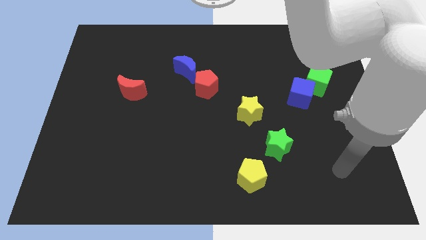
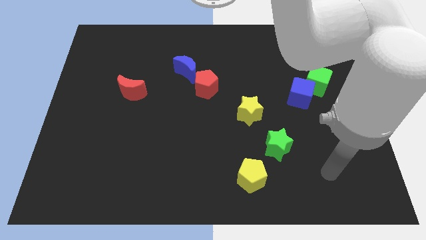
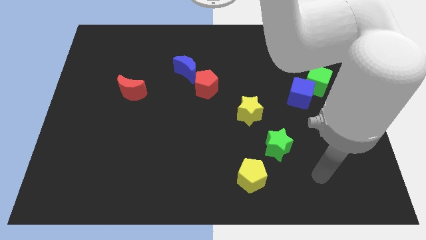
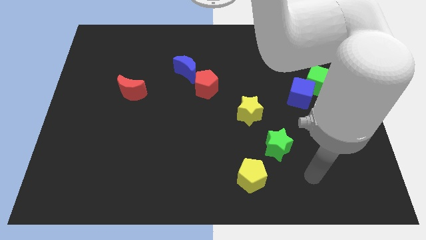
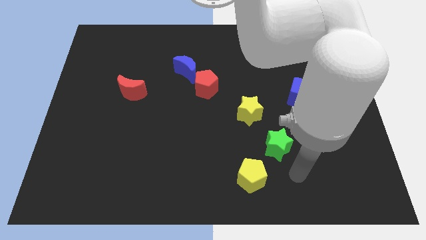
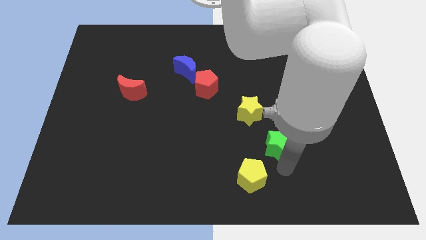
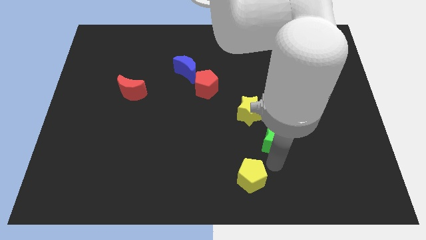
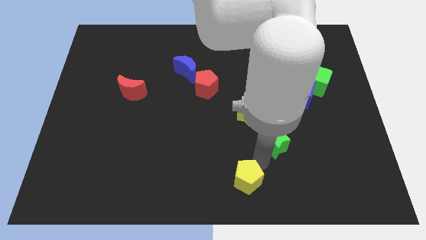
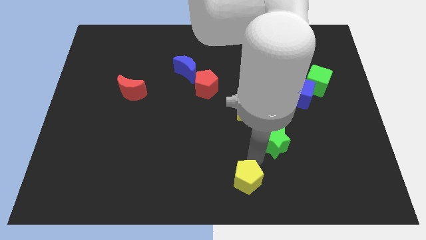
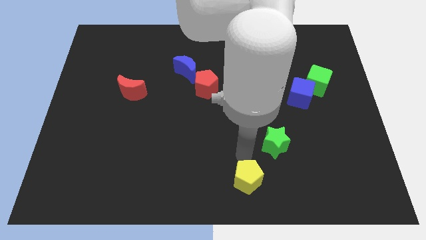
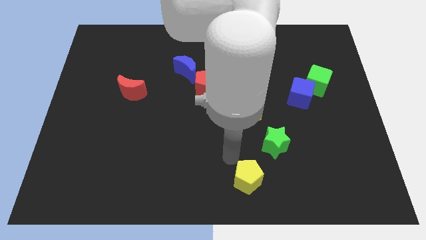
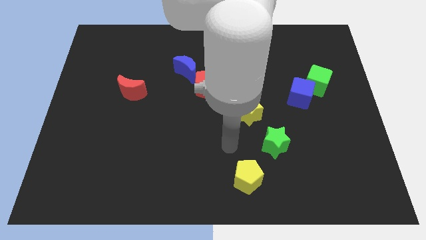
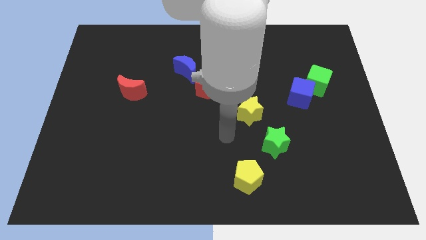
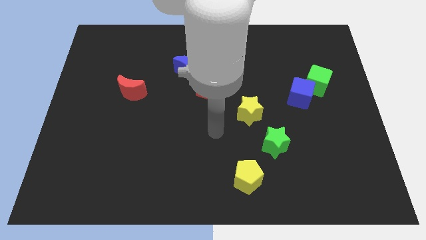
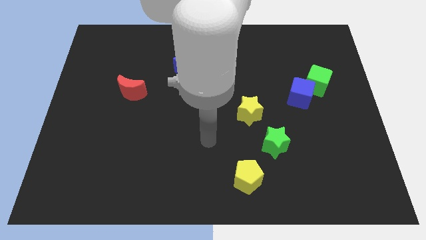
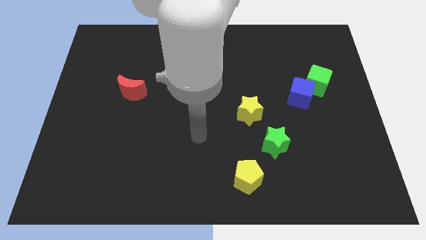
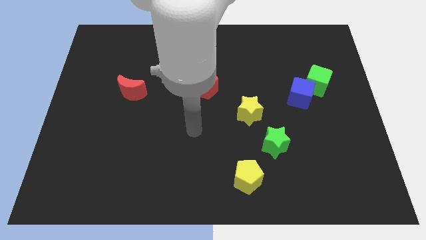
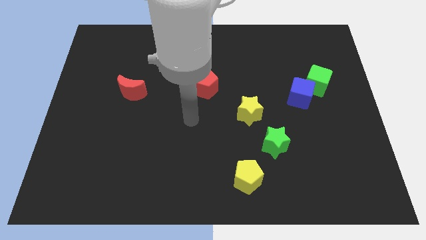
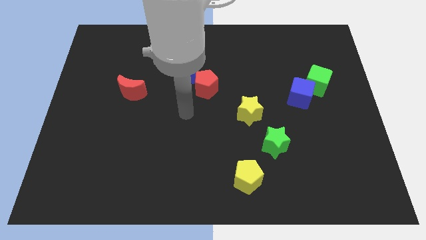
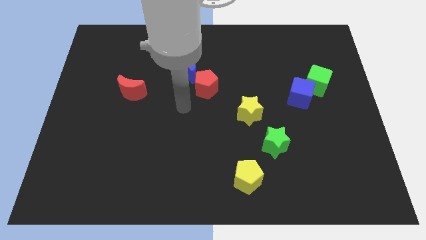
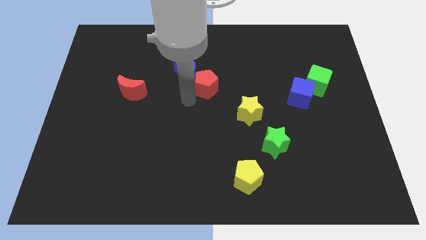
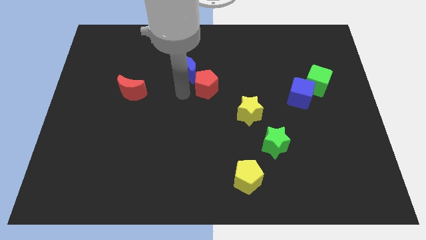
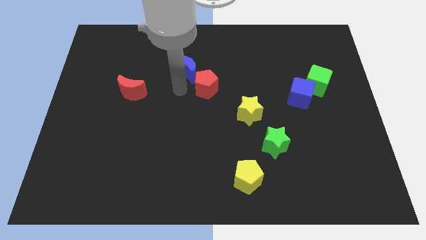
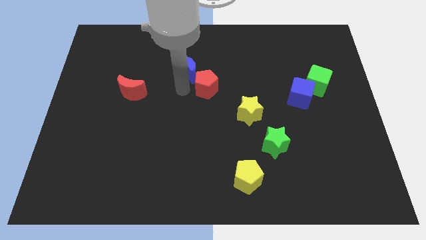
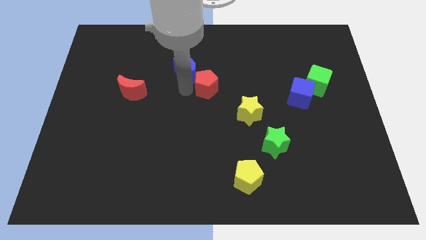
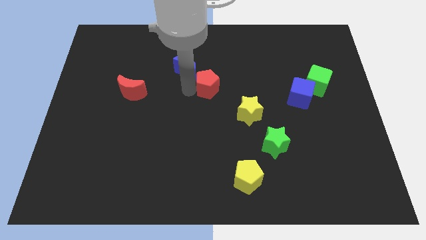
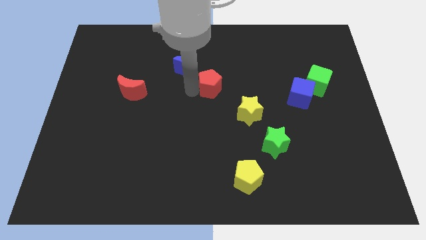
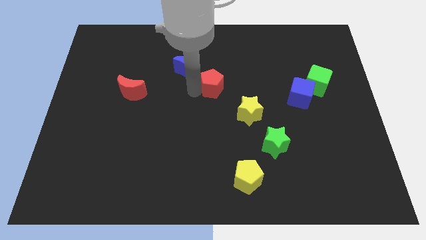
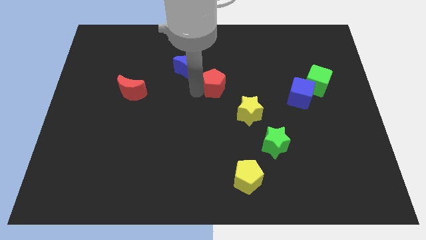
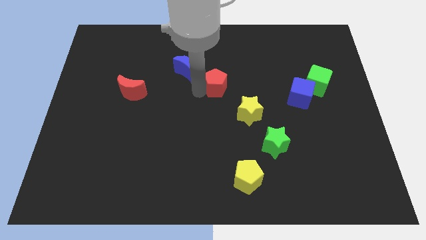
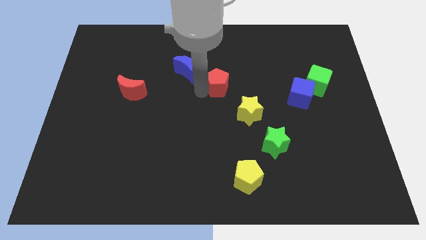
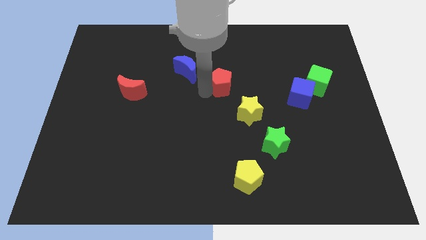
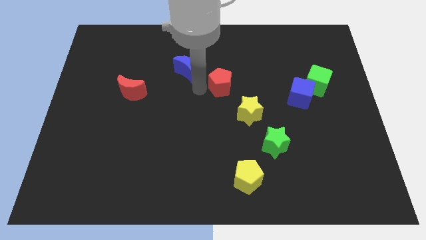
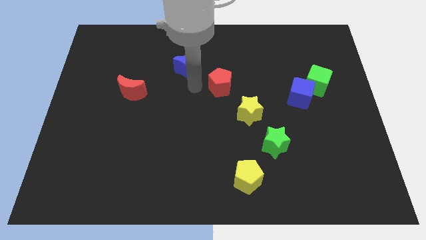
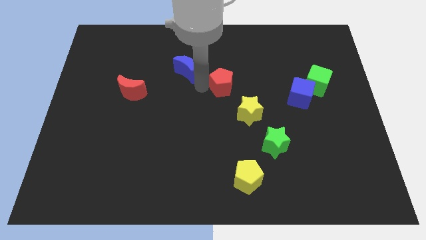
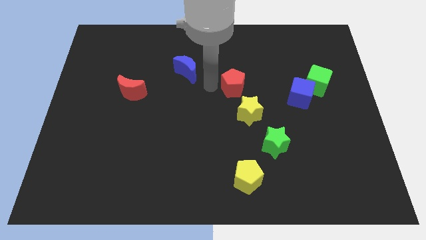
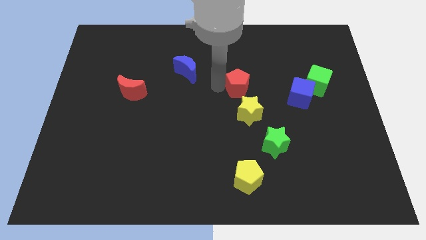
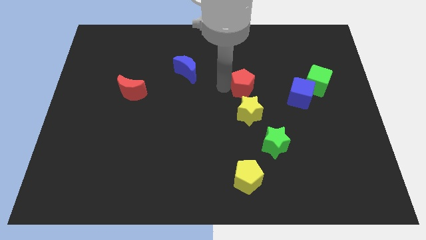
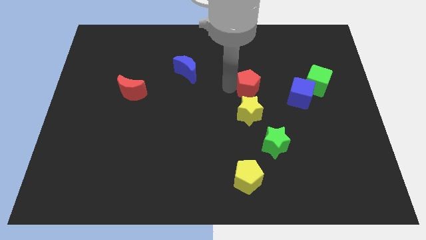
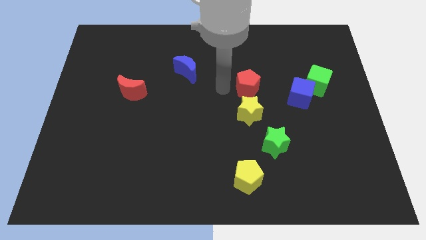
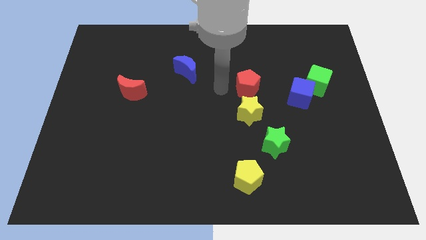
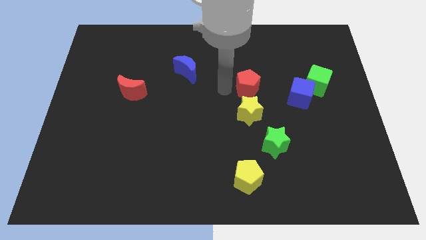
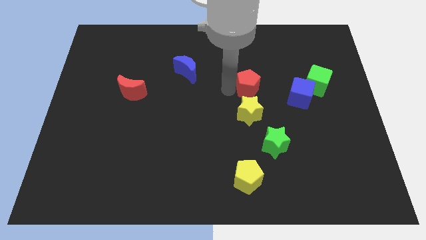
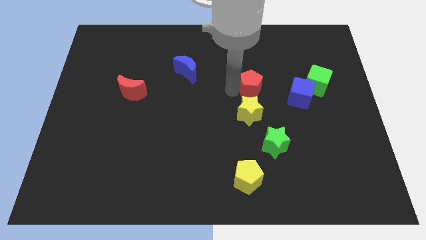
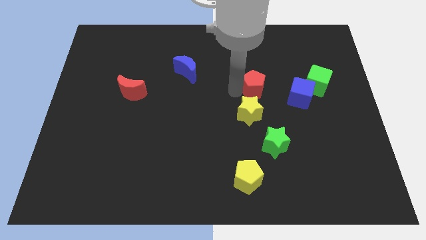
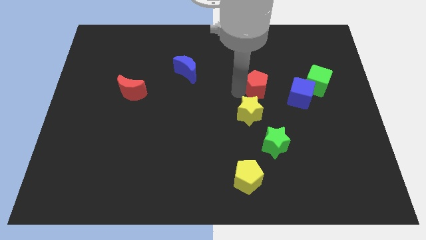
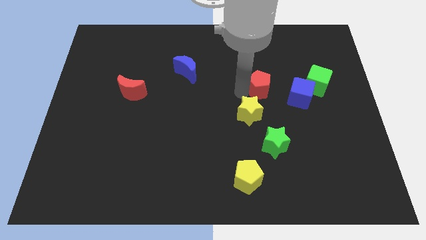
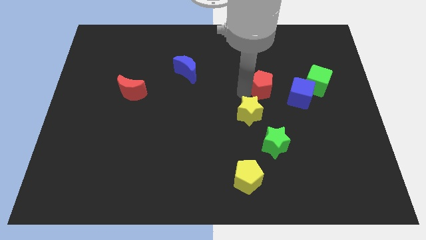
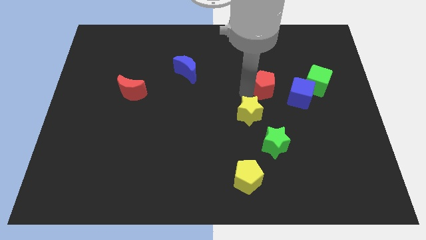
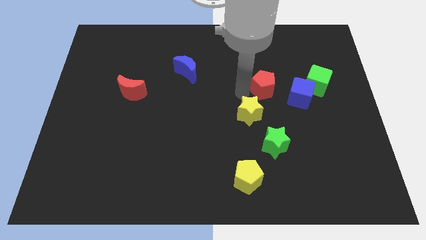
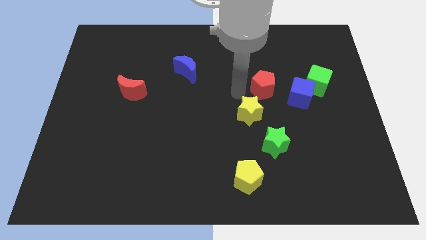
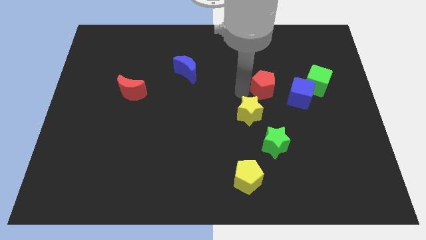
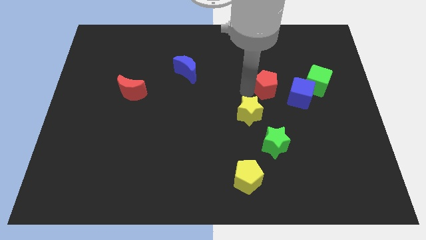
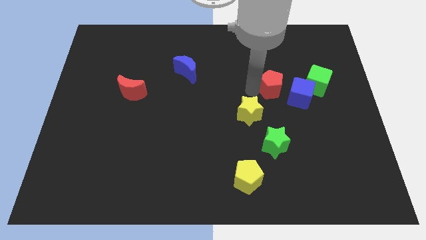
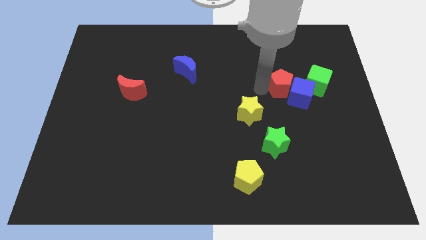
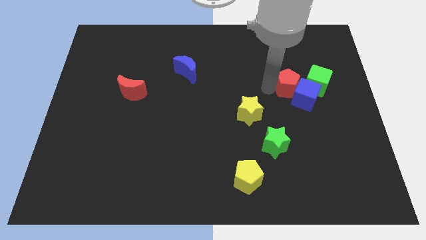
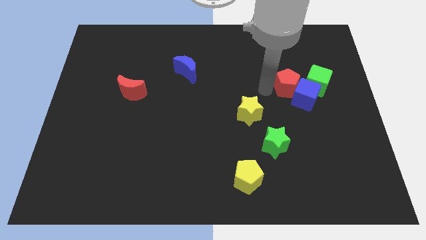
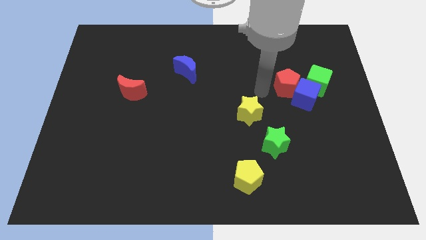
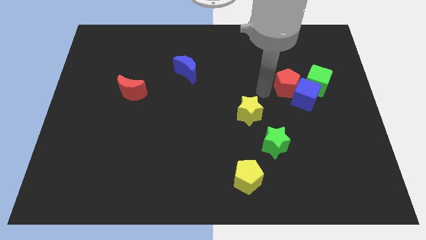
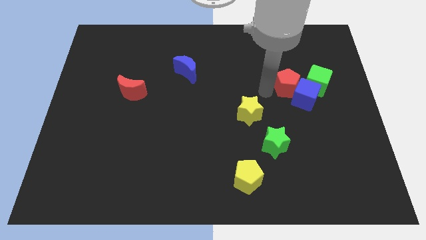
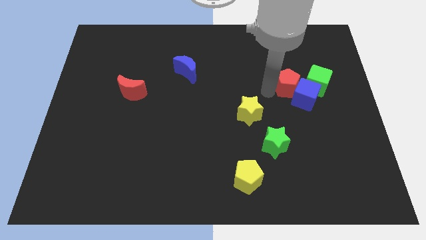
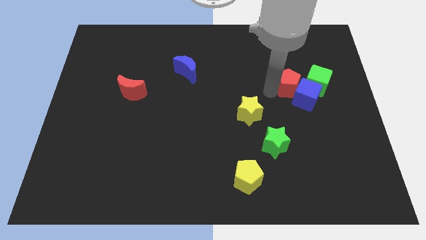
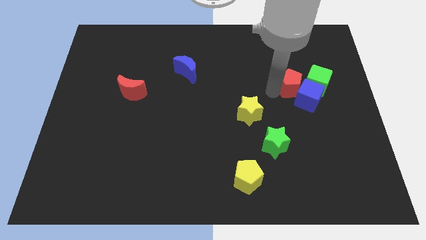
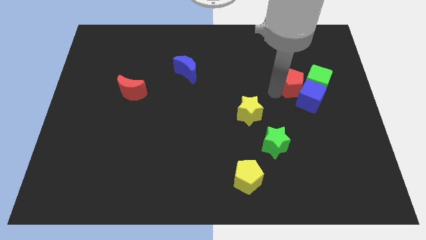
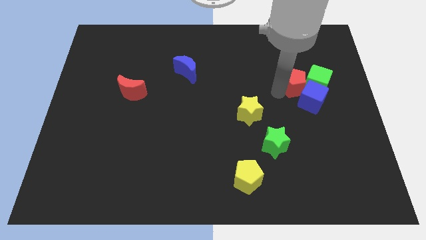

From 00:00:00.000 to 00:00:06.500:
put the red pentagon towards the green cube
